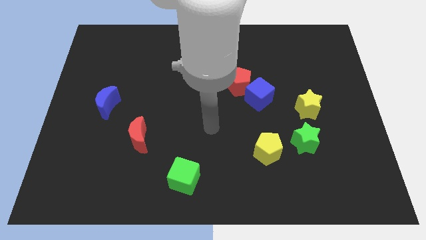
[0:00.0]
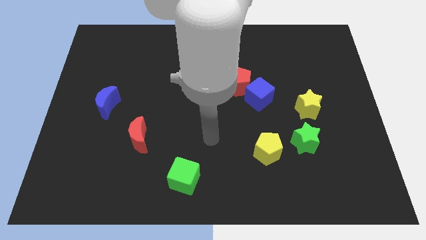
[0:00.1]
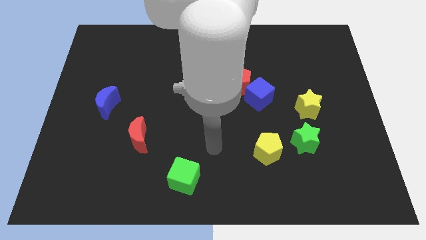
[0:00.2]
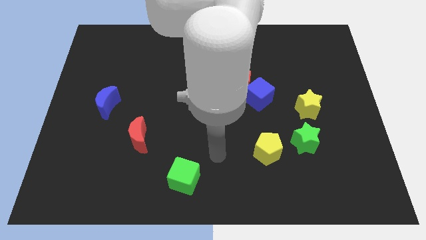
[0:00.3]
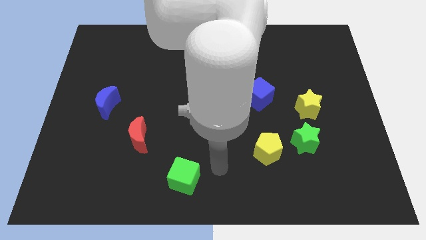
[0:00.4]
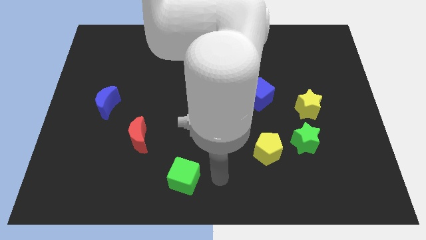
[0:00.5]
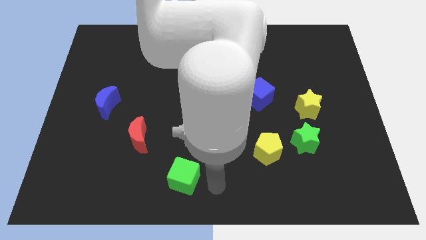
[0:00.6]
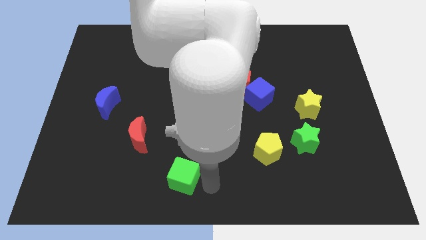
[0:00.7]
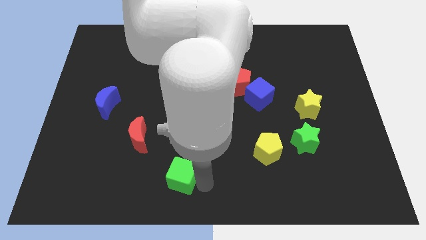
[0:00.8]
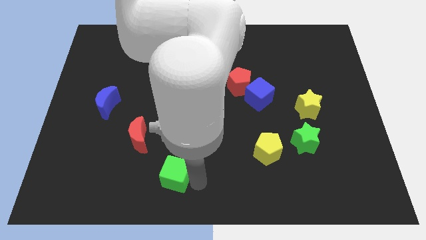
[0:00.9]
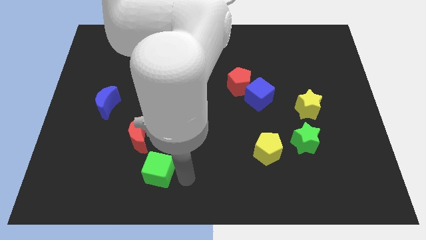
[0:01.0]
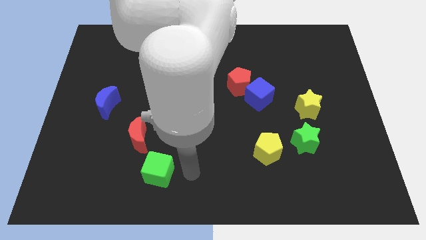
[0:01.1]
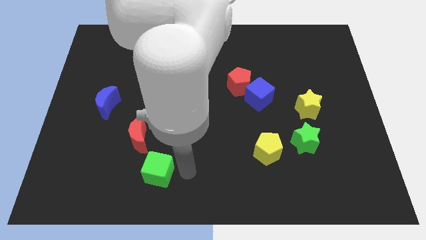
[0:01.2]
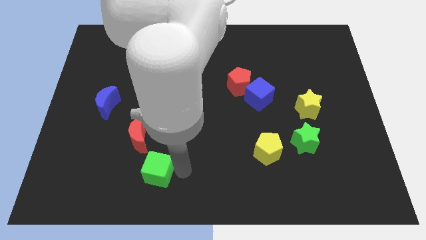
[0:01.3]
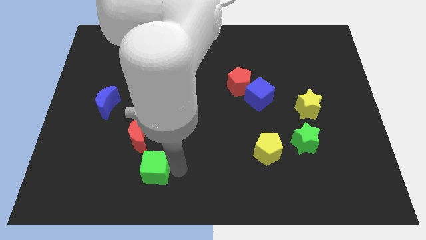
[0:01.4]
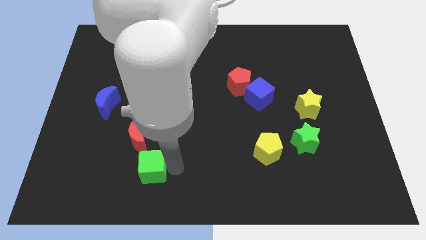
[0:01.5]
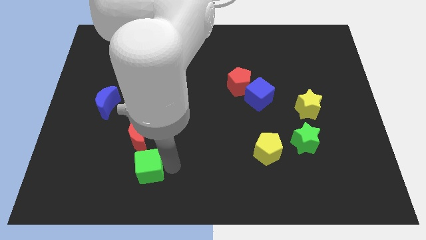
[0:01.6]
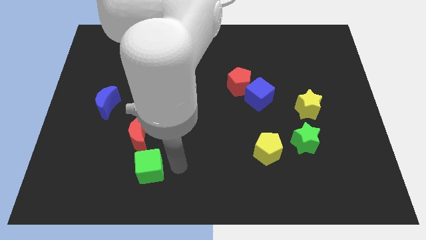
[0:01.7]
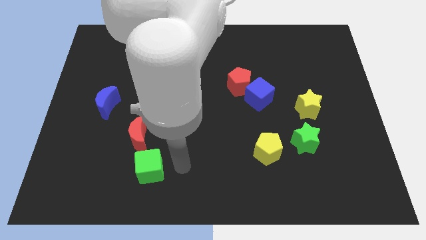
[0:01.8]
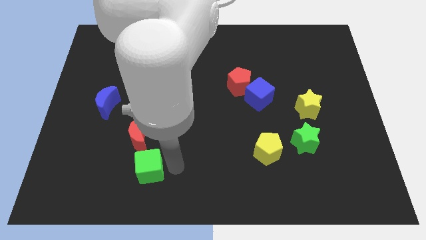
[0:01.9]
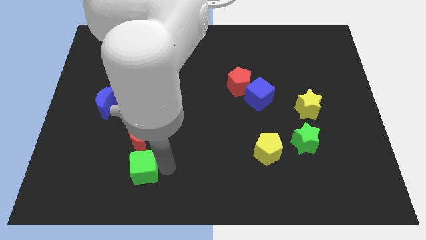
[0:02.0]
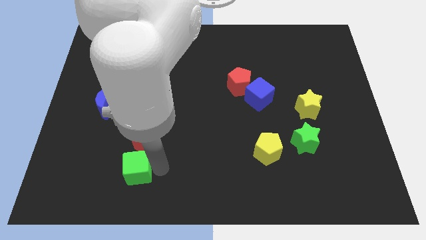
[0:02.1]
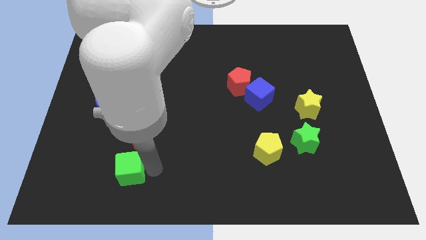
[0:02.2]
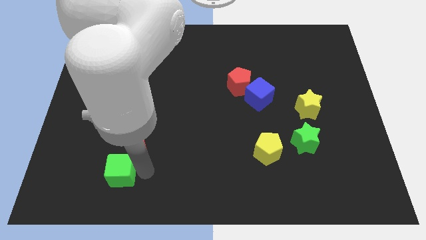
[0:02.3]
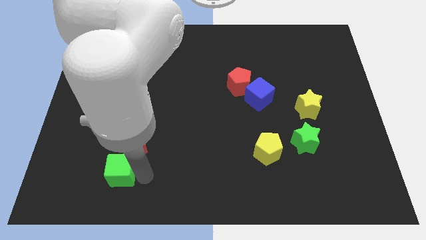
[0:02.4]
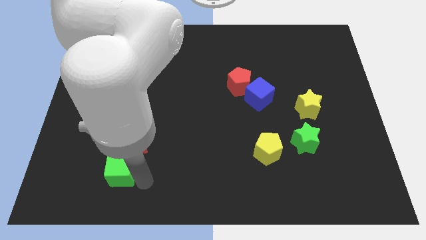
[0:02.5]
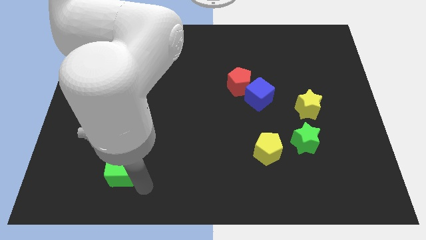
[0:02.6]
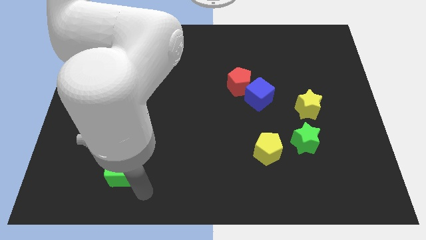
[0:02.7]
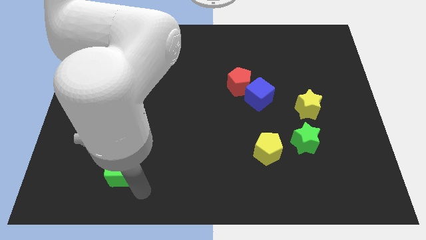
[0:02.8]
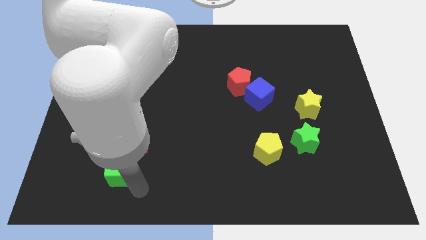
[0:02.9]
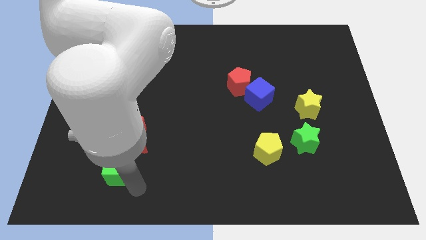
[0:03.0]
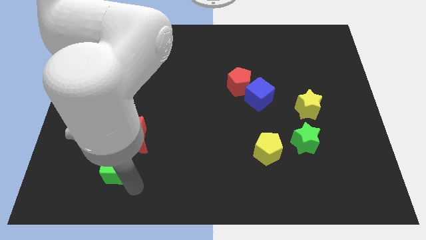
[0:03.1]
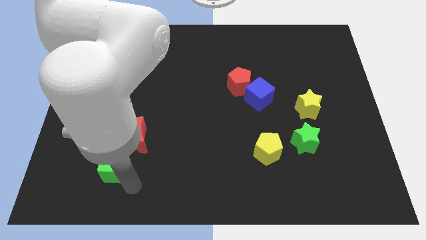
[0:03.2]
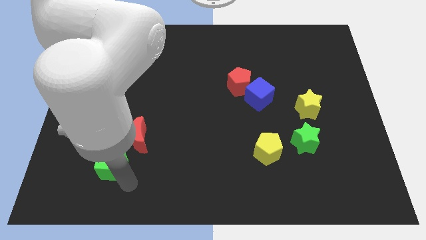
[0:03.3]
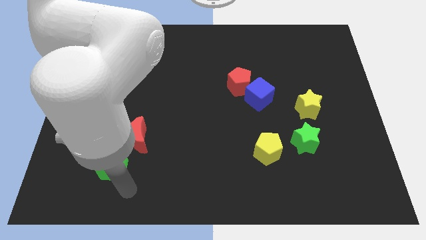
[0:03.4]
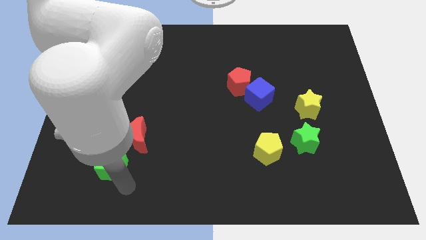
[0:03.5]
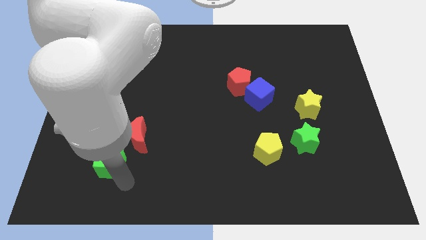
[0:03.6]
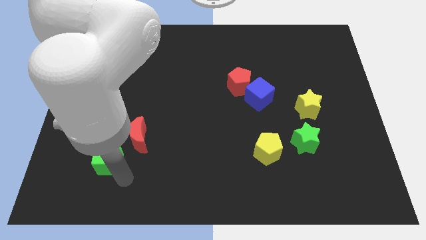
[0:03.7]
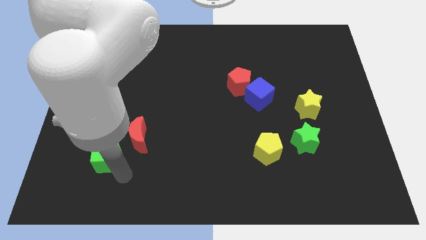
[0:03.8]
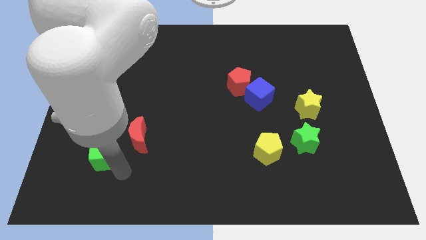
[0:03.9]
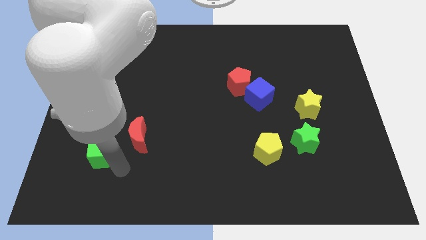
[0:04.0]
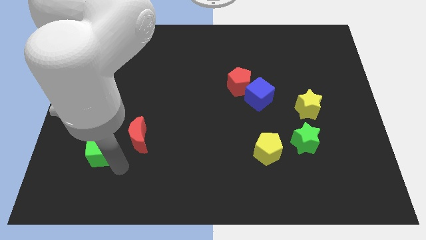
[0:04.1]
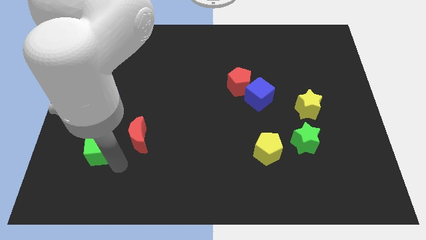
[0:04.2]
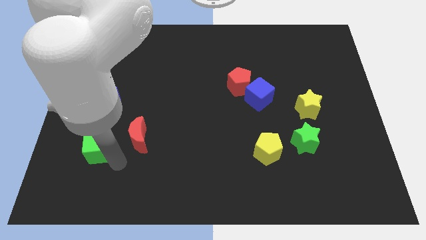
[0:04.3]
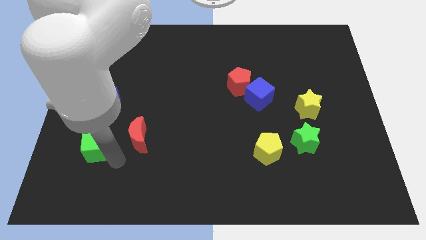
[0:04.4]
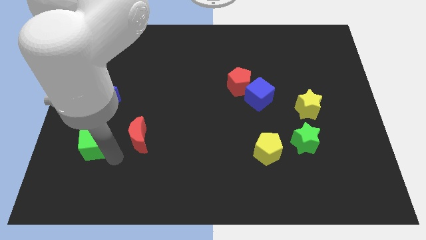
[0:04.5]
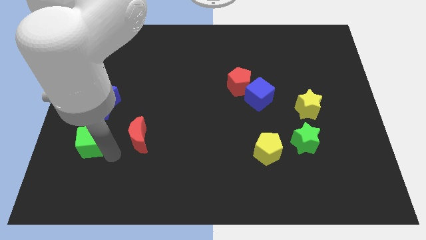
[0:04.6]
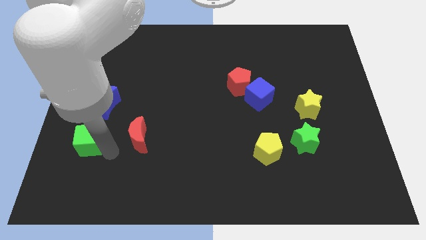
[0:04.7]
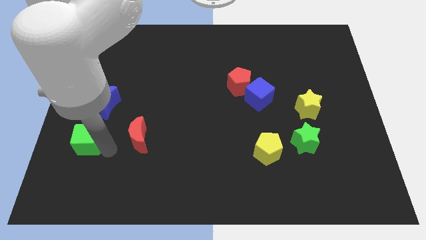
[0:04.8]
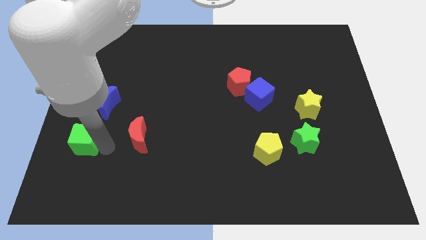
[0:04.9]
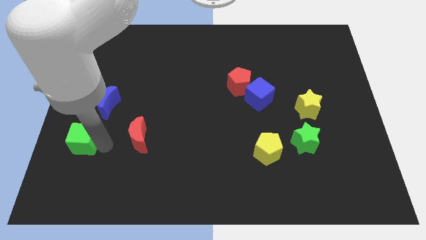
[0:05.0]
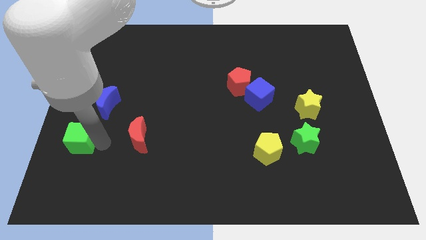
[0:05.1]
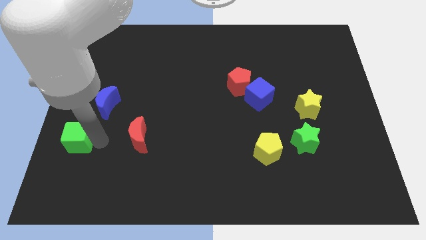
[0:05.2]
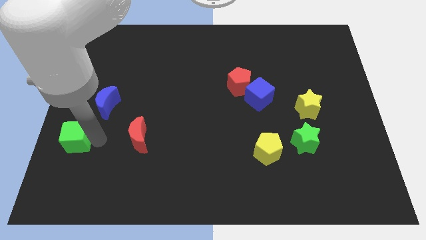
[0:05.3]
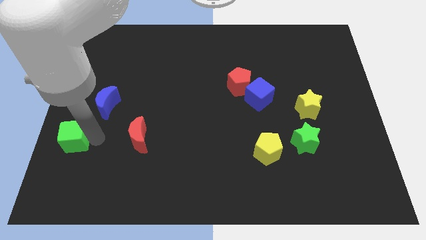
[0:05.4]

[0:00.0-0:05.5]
put the green cube to the left side

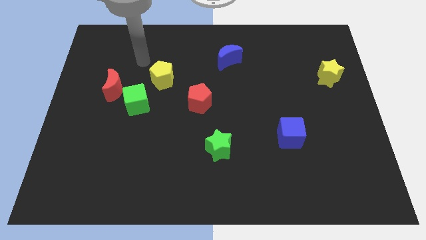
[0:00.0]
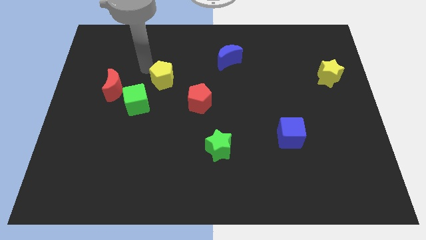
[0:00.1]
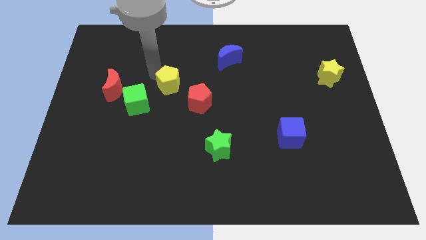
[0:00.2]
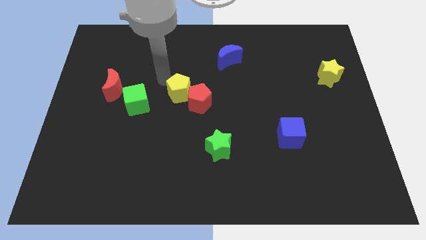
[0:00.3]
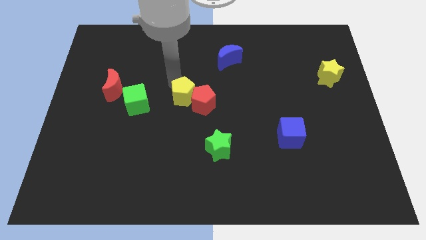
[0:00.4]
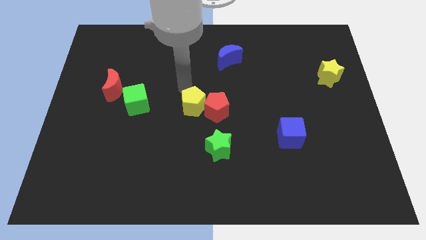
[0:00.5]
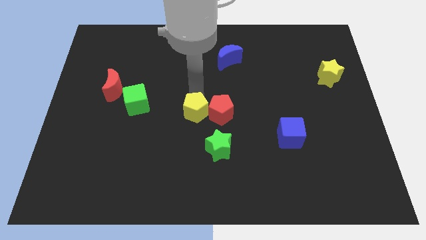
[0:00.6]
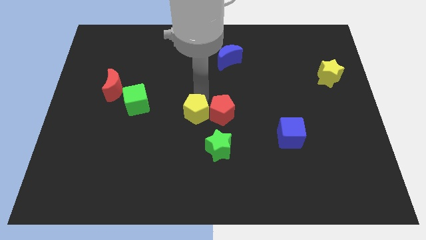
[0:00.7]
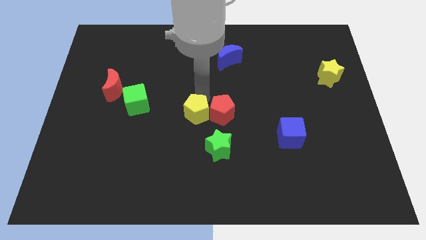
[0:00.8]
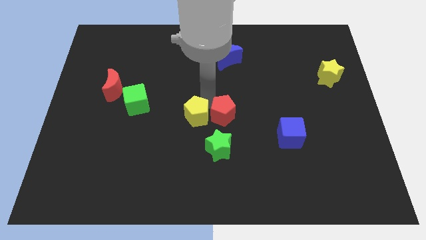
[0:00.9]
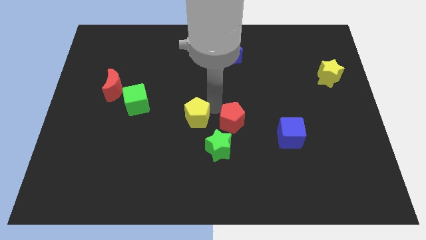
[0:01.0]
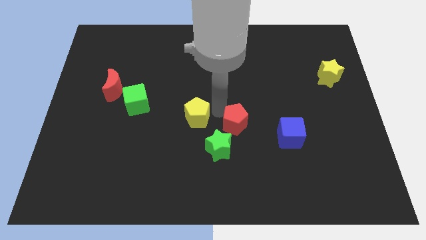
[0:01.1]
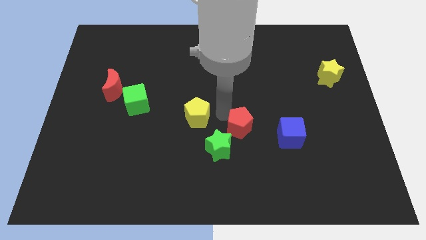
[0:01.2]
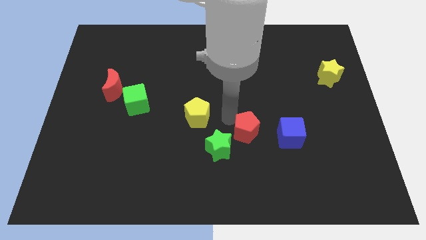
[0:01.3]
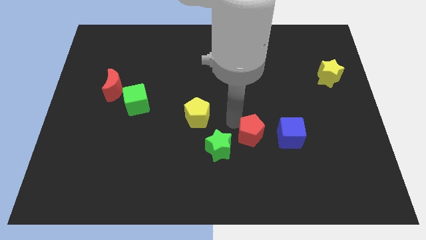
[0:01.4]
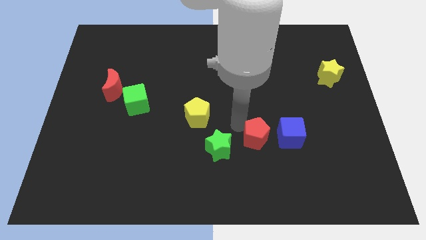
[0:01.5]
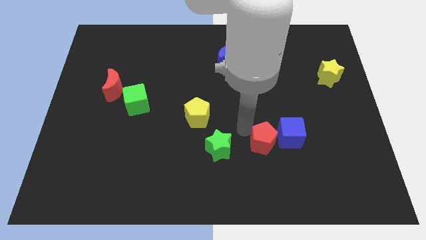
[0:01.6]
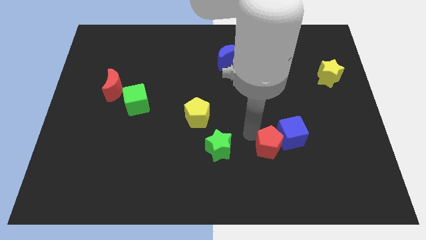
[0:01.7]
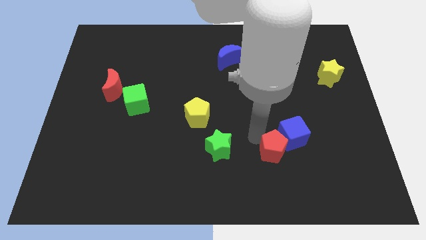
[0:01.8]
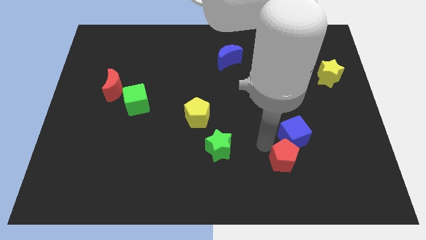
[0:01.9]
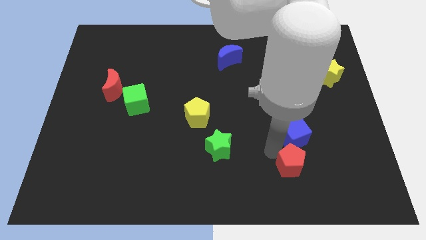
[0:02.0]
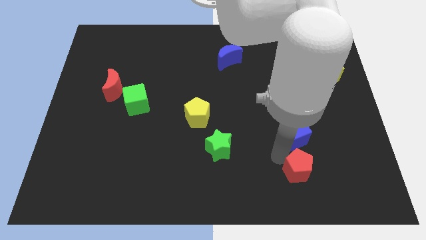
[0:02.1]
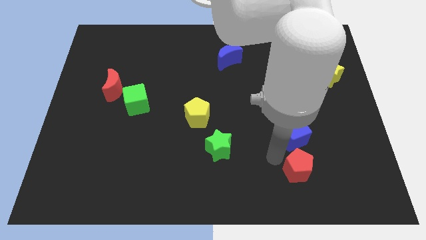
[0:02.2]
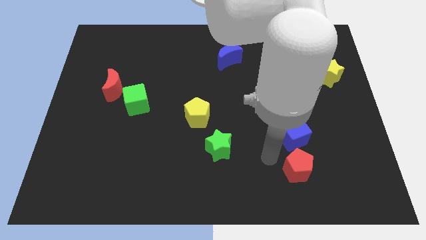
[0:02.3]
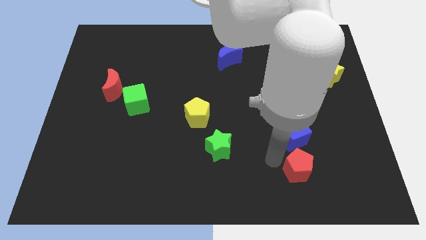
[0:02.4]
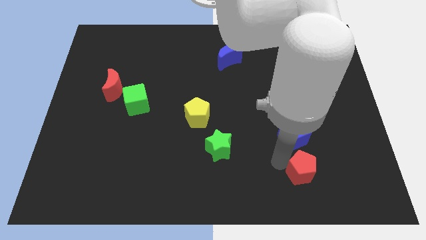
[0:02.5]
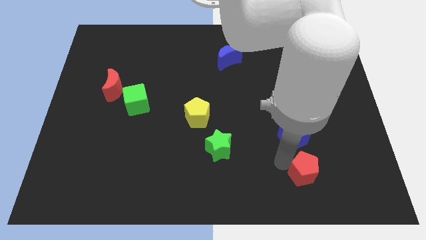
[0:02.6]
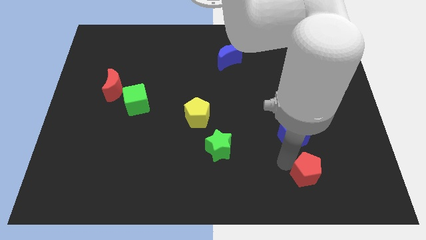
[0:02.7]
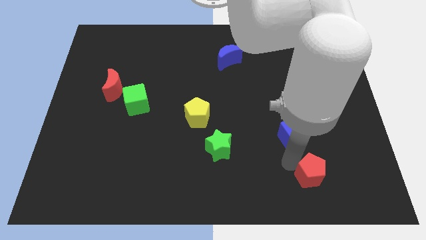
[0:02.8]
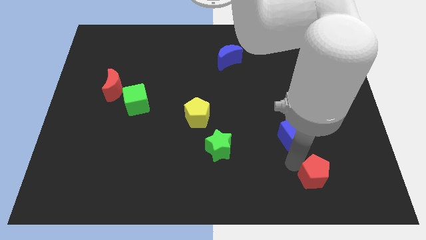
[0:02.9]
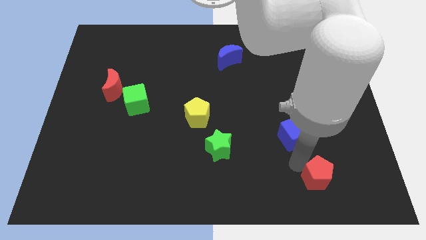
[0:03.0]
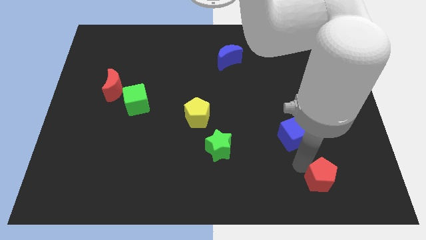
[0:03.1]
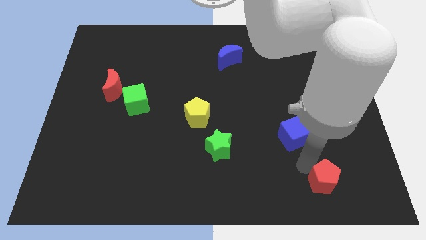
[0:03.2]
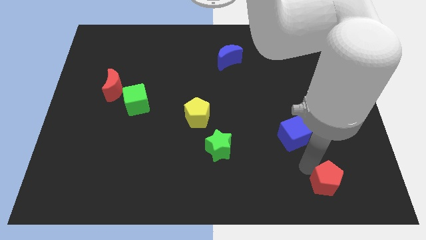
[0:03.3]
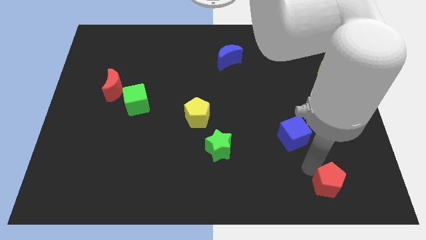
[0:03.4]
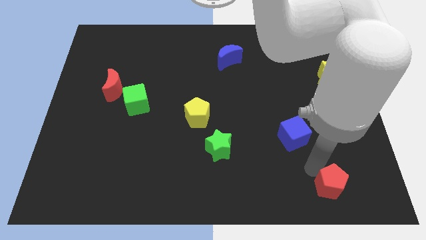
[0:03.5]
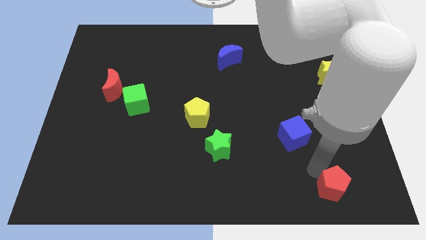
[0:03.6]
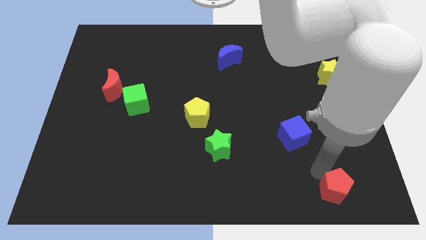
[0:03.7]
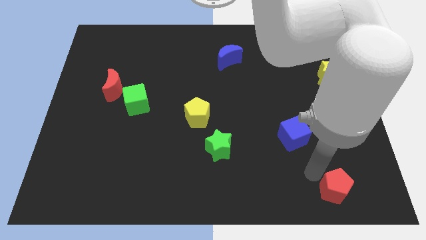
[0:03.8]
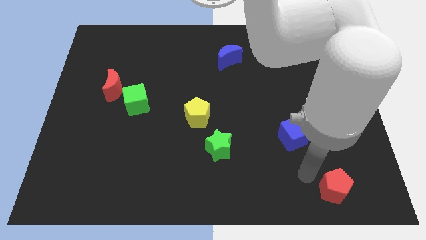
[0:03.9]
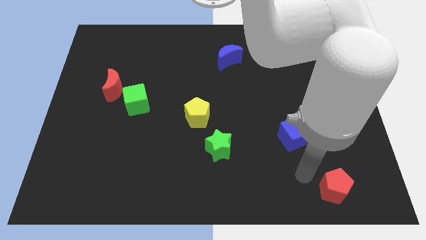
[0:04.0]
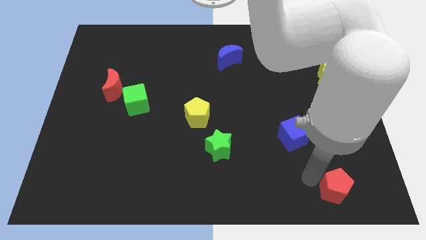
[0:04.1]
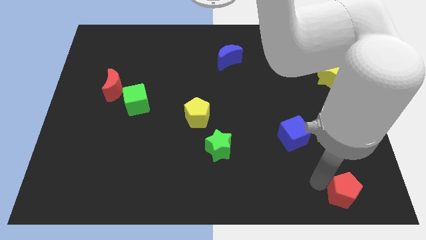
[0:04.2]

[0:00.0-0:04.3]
slide the red pentagon to the bottom right corner
